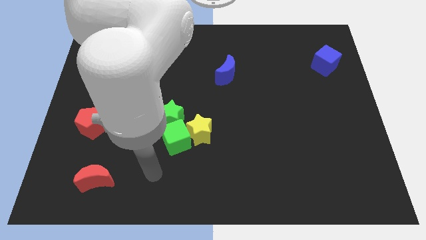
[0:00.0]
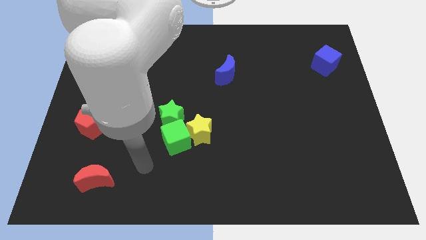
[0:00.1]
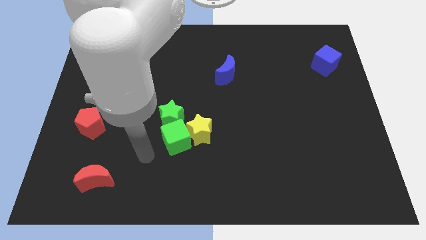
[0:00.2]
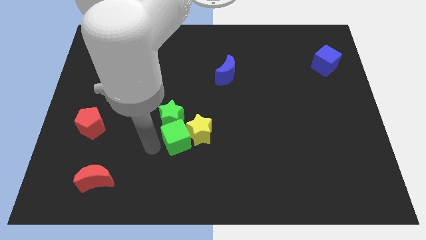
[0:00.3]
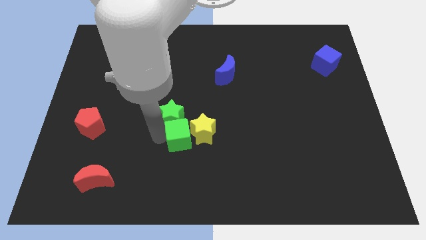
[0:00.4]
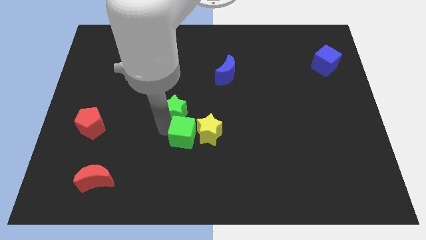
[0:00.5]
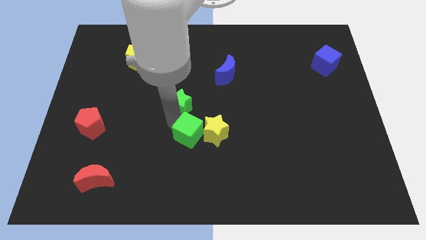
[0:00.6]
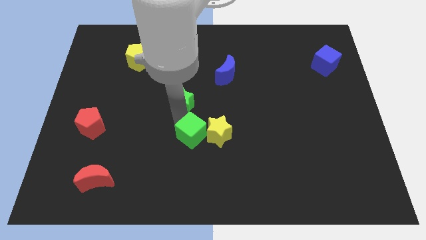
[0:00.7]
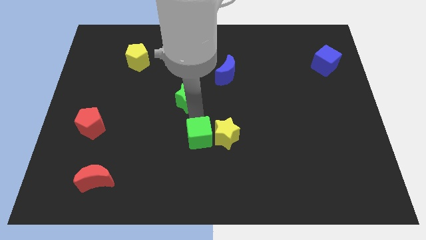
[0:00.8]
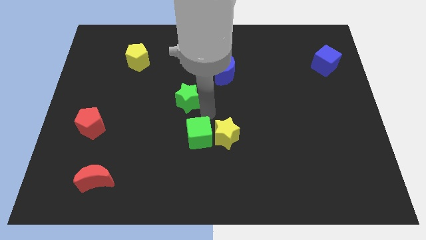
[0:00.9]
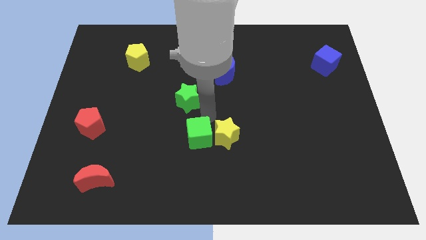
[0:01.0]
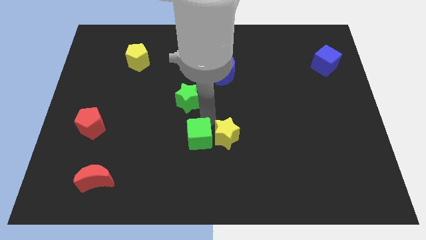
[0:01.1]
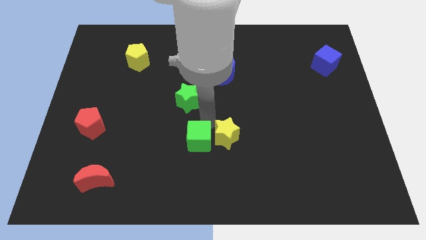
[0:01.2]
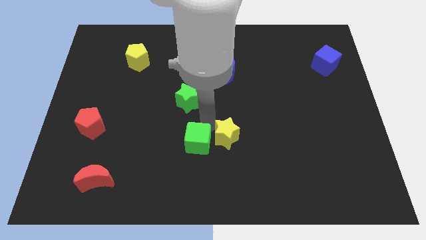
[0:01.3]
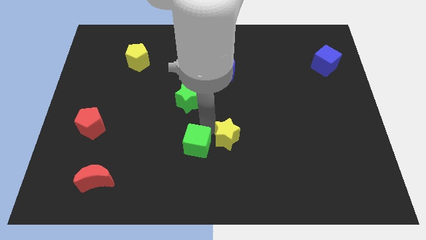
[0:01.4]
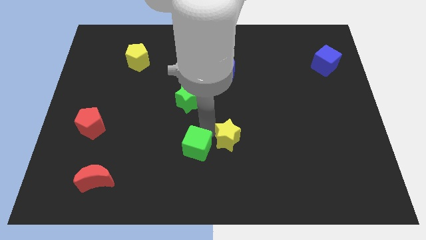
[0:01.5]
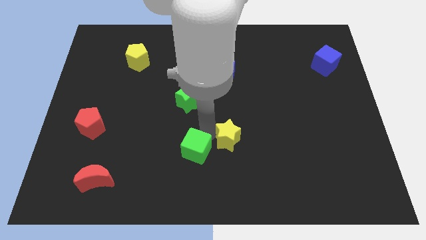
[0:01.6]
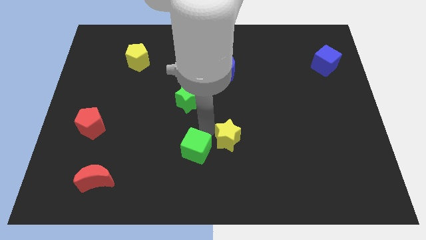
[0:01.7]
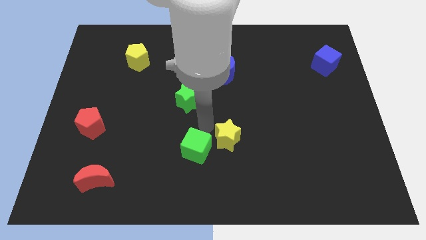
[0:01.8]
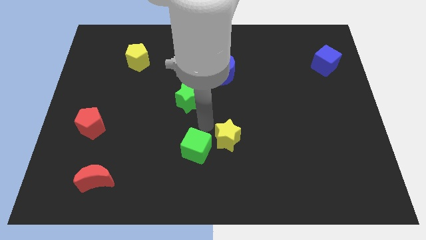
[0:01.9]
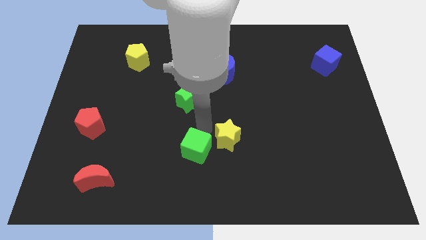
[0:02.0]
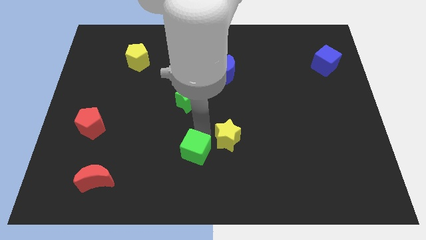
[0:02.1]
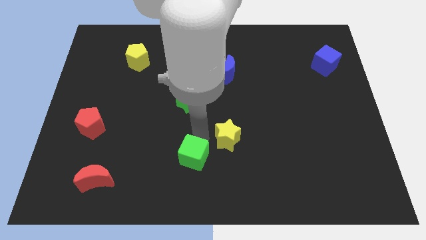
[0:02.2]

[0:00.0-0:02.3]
pull the green cube apart from the yellow star and green star

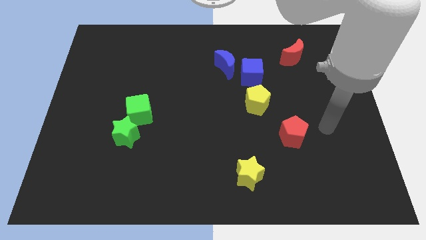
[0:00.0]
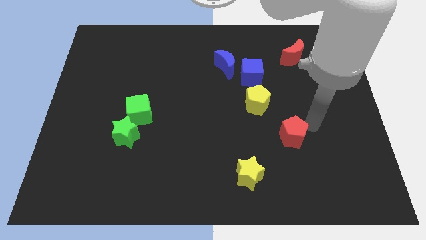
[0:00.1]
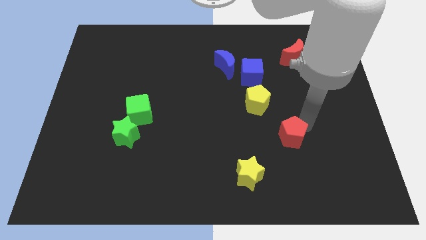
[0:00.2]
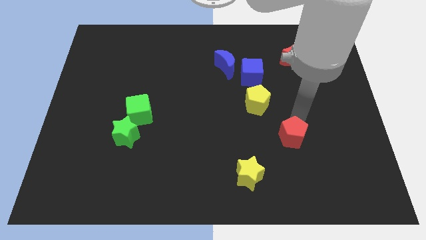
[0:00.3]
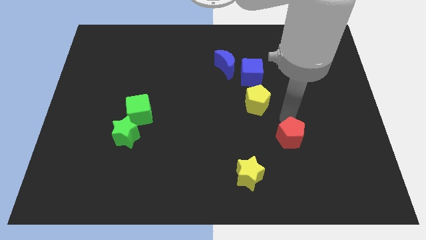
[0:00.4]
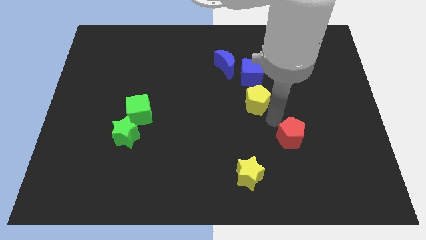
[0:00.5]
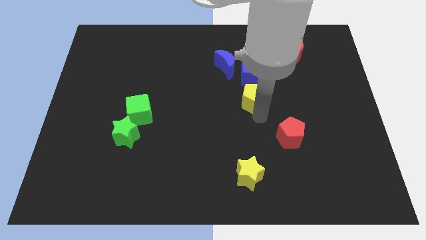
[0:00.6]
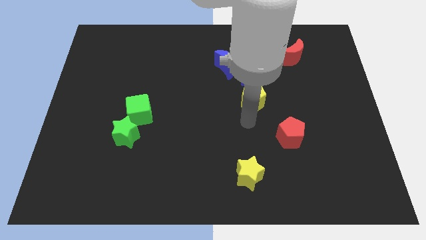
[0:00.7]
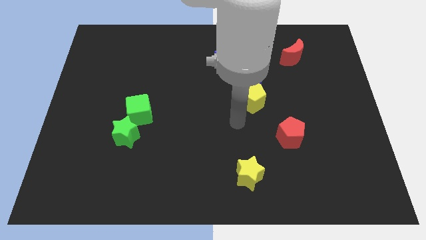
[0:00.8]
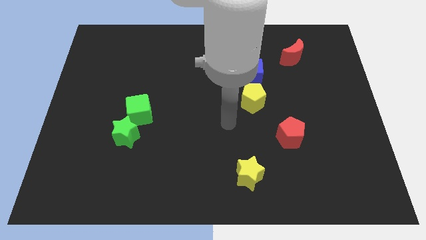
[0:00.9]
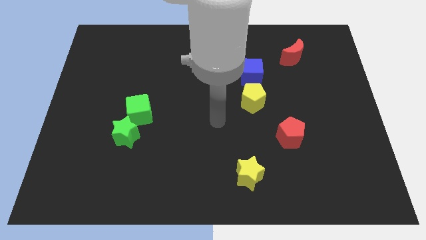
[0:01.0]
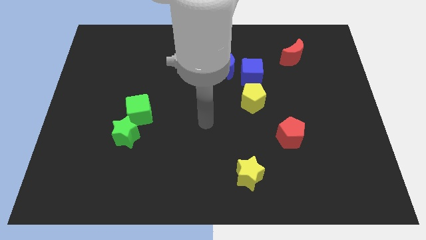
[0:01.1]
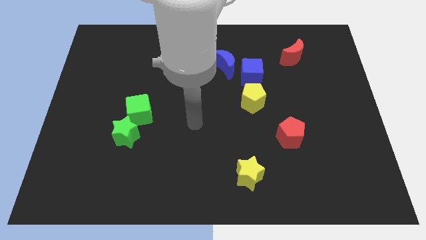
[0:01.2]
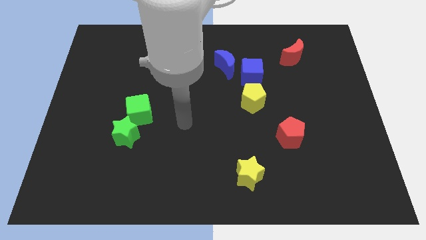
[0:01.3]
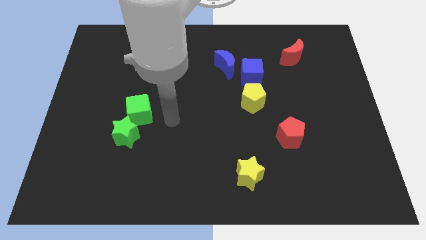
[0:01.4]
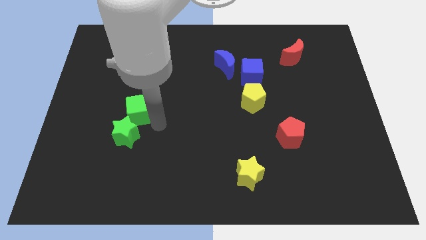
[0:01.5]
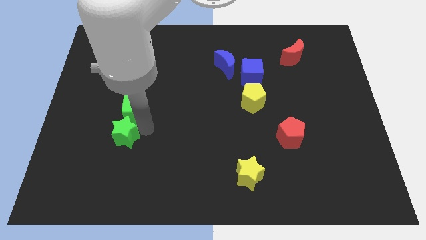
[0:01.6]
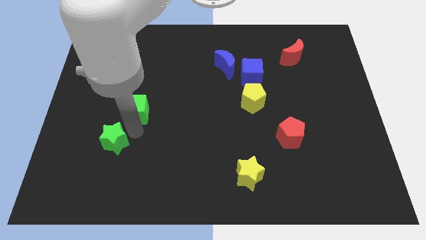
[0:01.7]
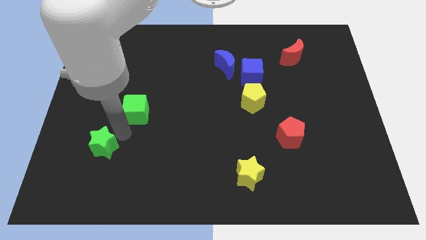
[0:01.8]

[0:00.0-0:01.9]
separate the green cube from the green star

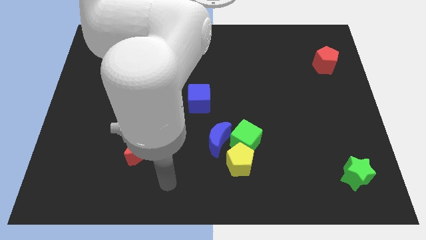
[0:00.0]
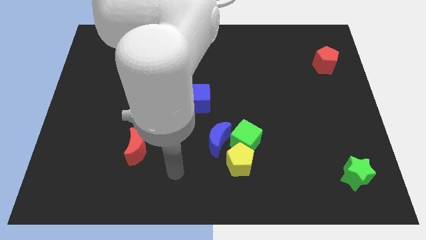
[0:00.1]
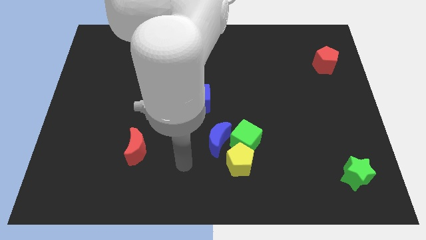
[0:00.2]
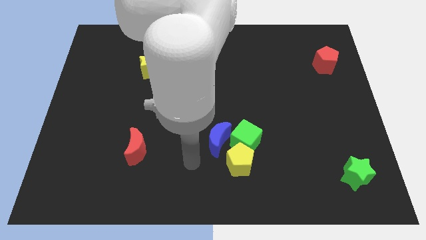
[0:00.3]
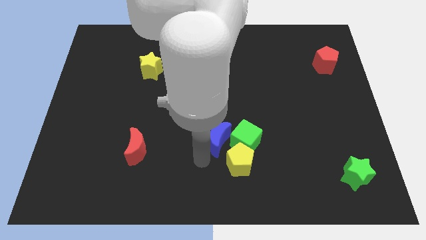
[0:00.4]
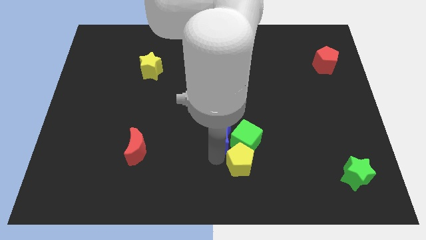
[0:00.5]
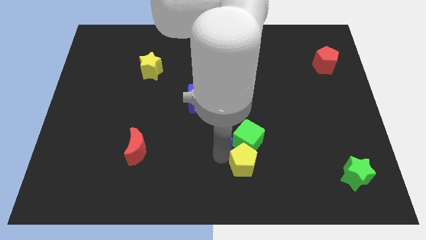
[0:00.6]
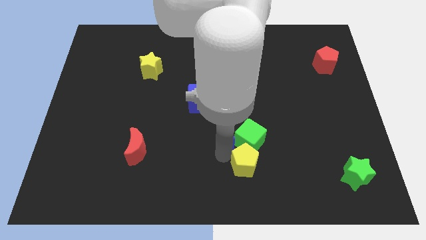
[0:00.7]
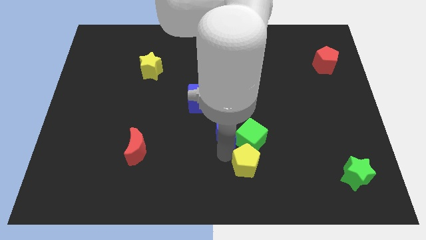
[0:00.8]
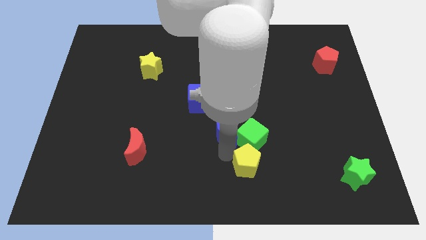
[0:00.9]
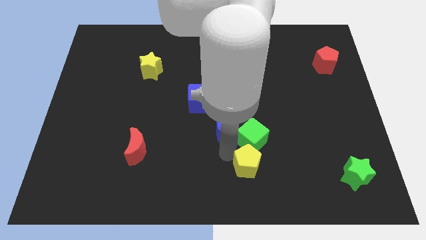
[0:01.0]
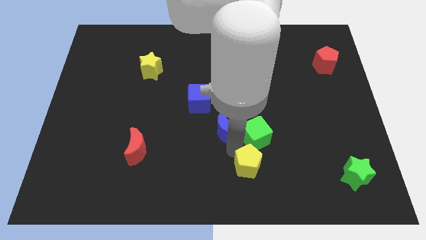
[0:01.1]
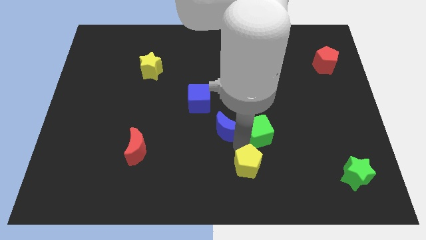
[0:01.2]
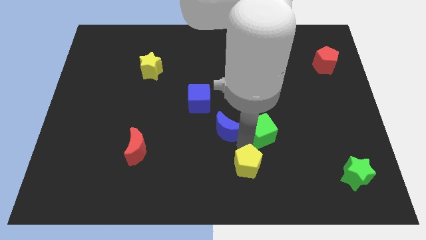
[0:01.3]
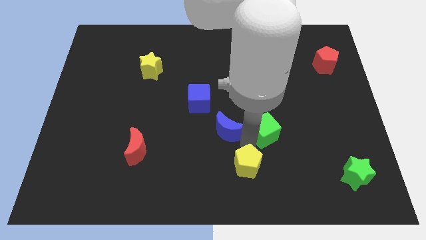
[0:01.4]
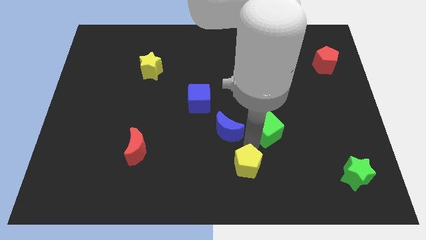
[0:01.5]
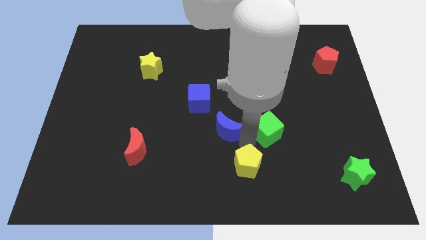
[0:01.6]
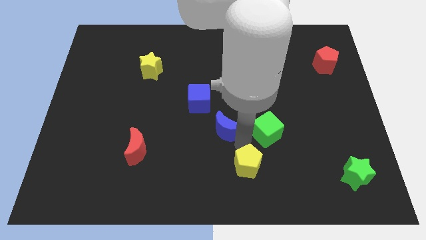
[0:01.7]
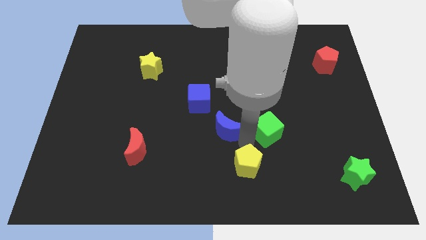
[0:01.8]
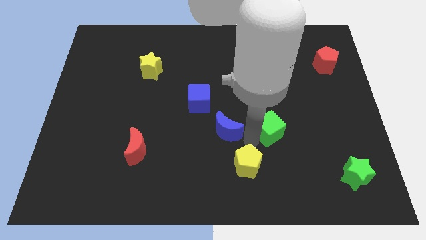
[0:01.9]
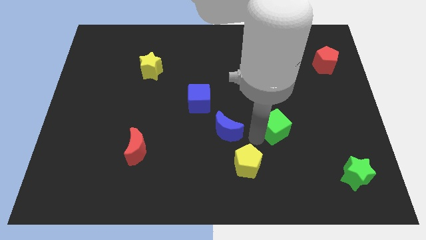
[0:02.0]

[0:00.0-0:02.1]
separate the green cube from the yellow pentagon and blue moon

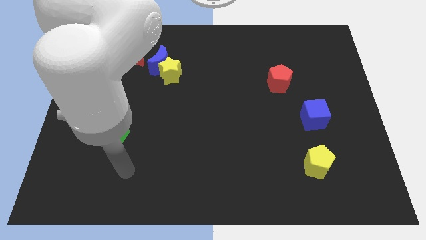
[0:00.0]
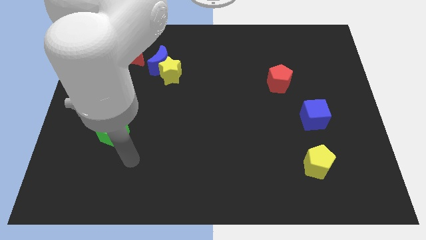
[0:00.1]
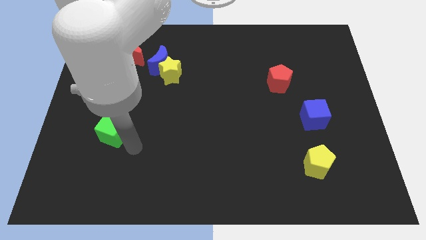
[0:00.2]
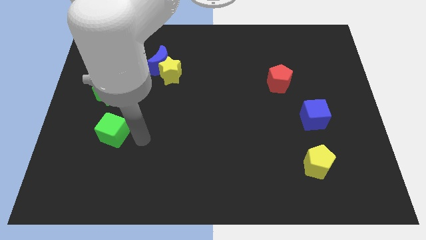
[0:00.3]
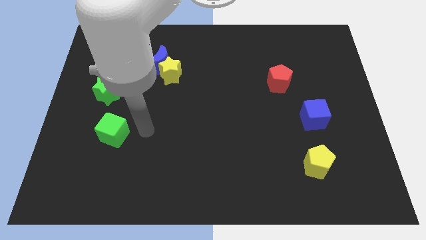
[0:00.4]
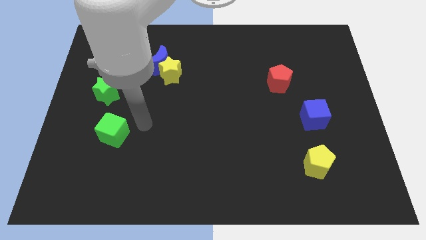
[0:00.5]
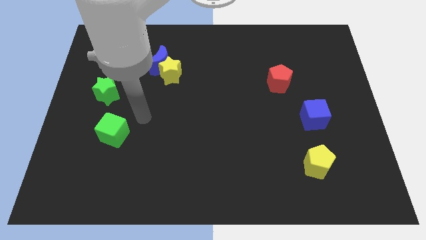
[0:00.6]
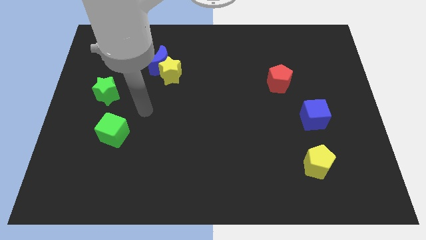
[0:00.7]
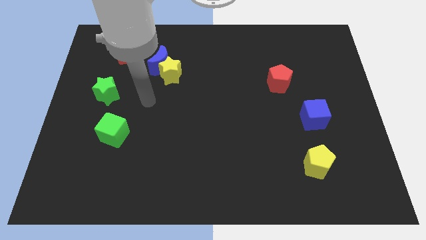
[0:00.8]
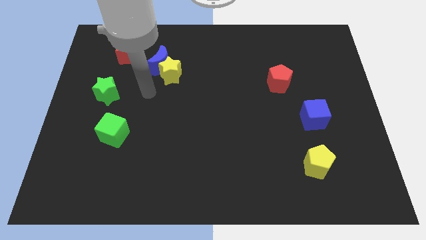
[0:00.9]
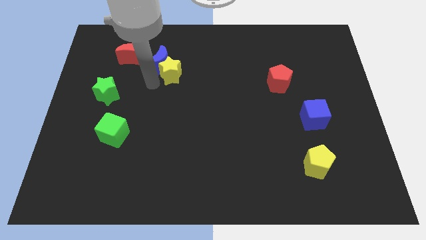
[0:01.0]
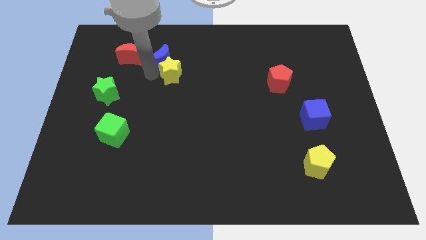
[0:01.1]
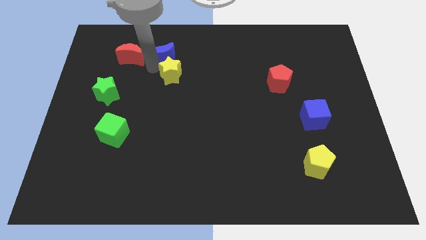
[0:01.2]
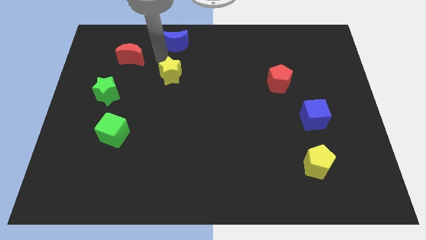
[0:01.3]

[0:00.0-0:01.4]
pull the yellow star apart from the blue moon

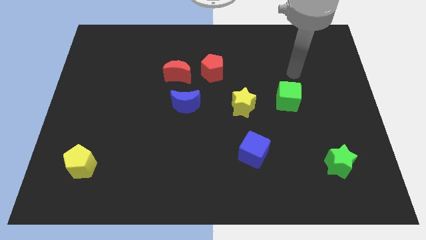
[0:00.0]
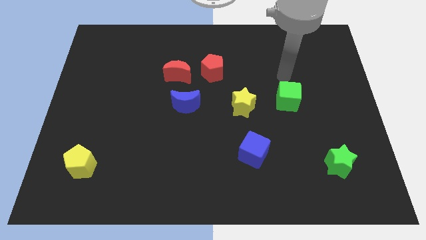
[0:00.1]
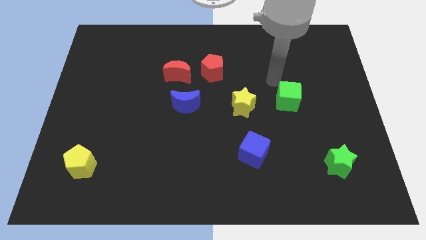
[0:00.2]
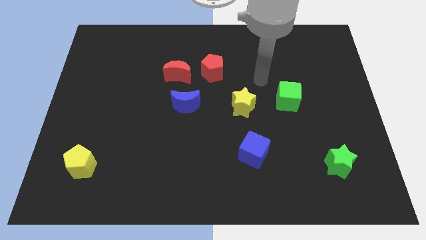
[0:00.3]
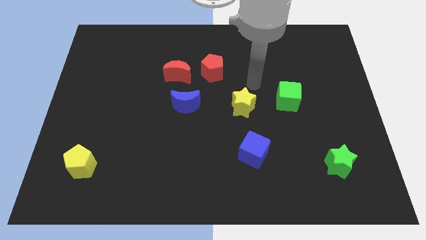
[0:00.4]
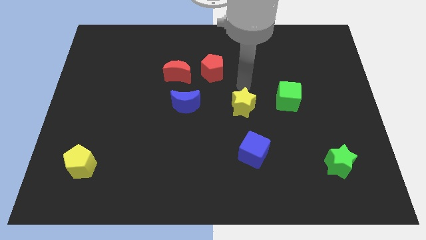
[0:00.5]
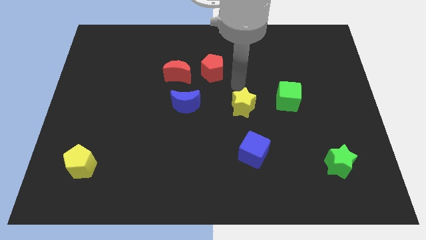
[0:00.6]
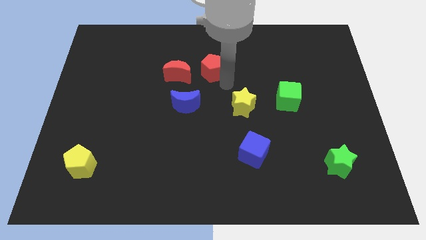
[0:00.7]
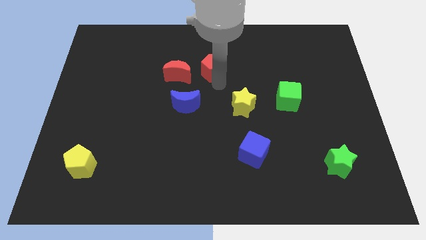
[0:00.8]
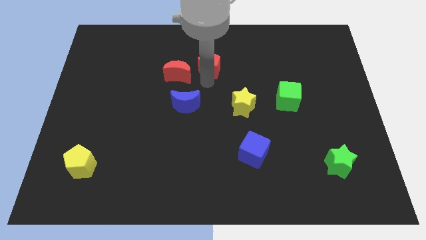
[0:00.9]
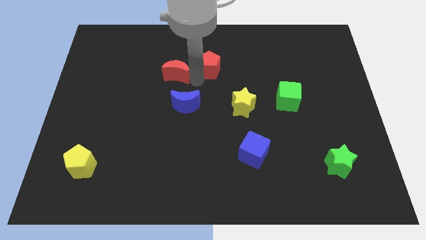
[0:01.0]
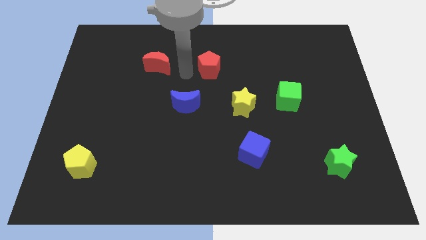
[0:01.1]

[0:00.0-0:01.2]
separate the red pentagon from the red moon

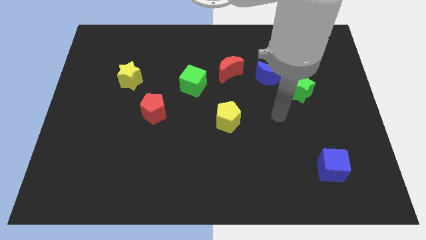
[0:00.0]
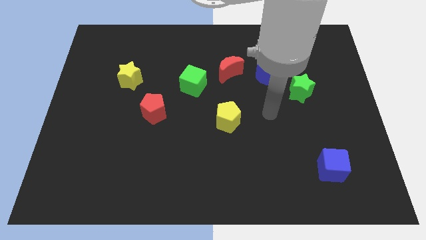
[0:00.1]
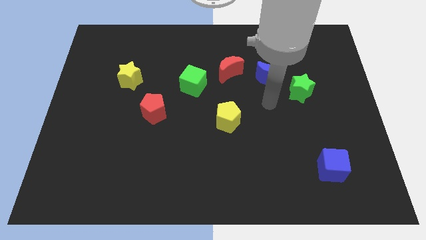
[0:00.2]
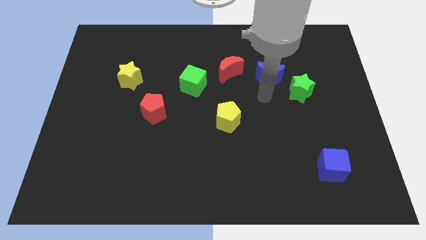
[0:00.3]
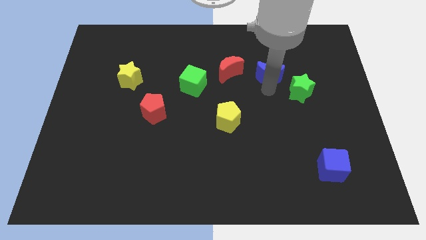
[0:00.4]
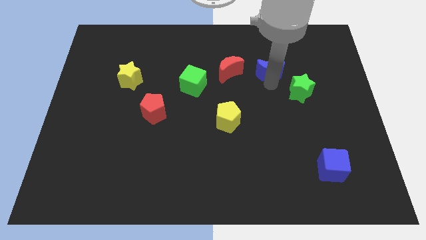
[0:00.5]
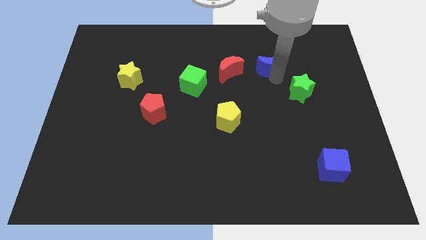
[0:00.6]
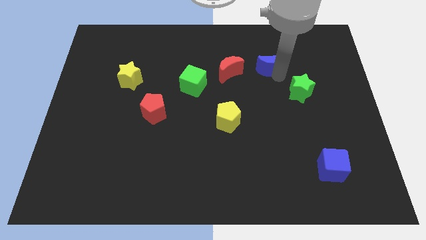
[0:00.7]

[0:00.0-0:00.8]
separate the green star from the blue moon
